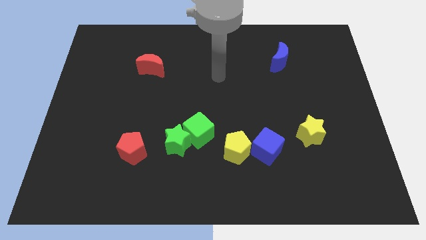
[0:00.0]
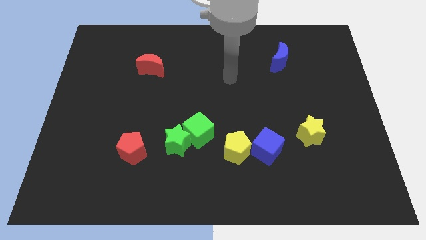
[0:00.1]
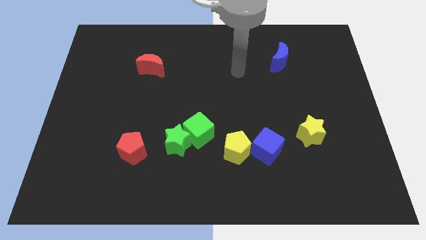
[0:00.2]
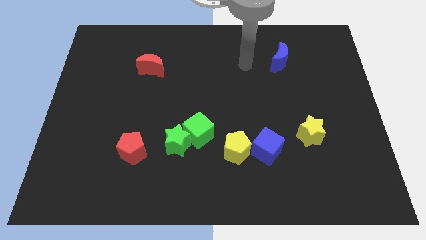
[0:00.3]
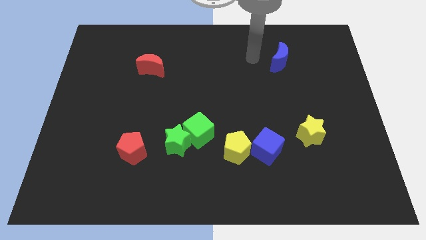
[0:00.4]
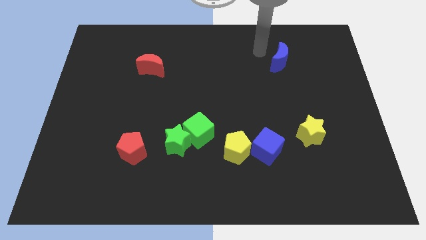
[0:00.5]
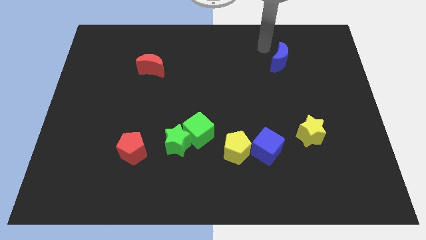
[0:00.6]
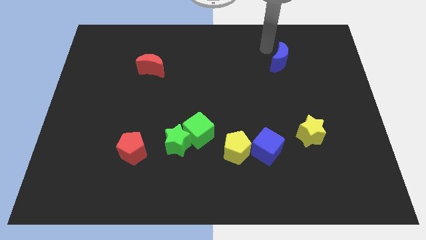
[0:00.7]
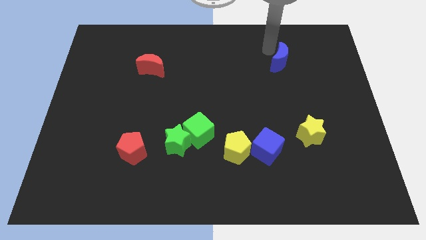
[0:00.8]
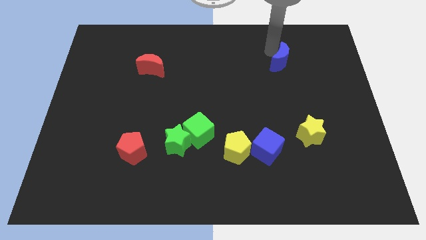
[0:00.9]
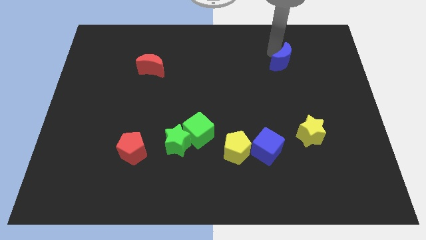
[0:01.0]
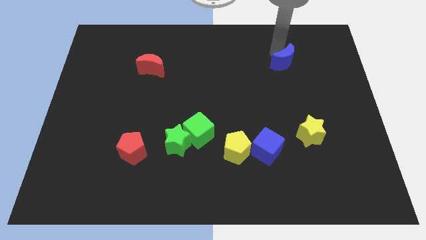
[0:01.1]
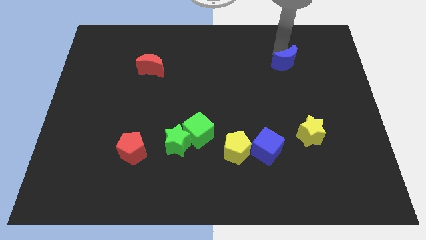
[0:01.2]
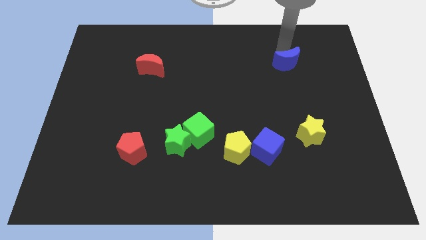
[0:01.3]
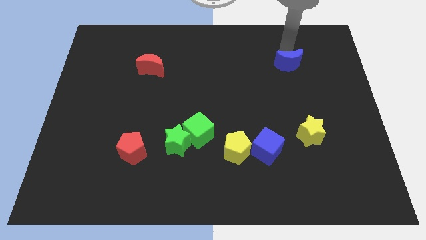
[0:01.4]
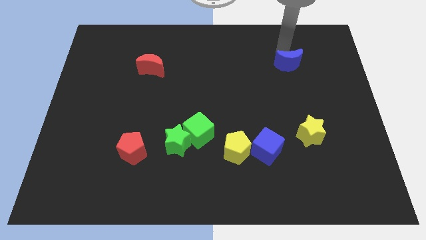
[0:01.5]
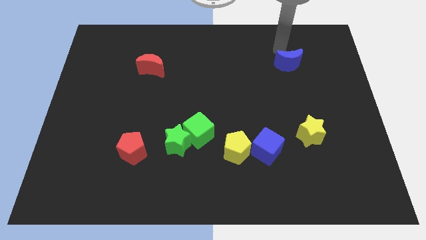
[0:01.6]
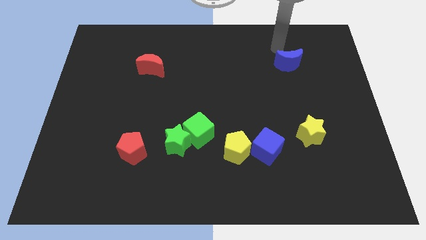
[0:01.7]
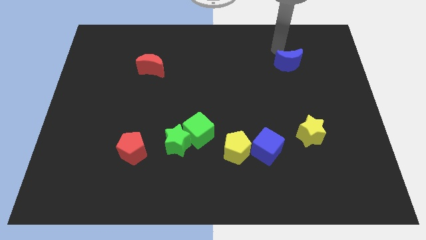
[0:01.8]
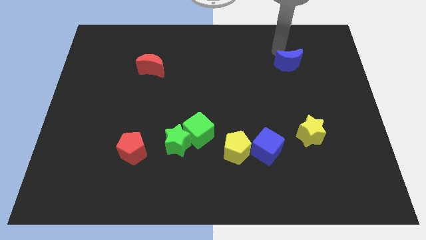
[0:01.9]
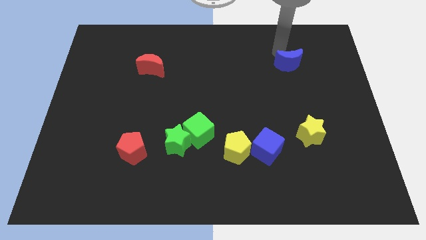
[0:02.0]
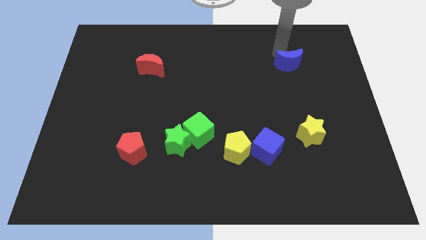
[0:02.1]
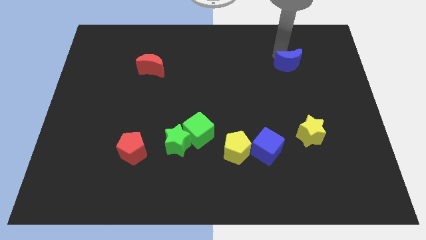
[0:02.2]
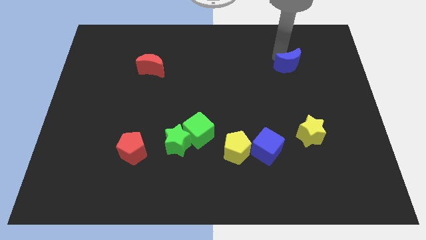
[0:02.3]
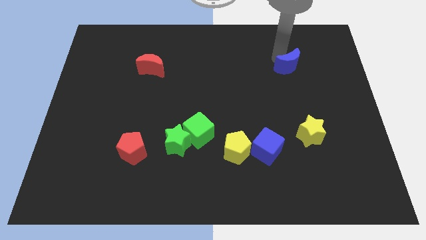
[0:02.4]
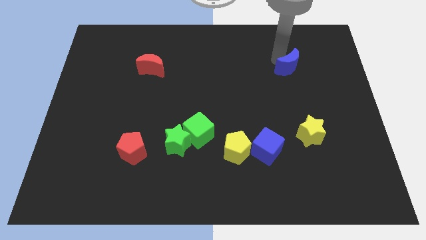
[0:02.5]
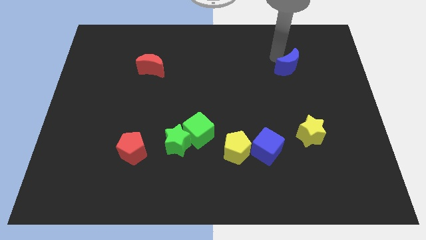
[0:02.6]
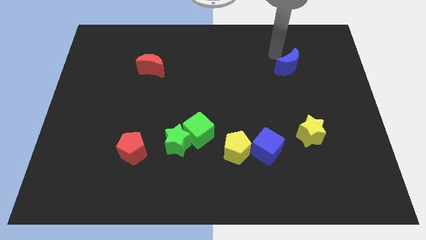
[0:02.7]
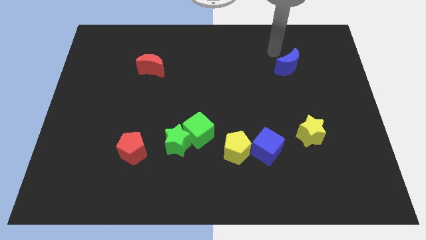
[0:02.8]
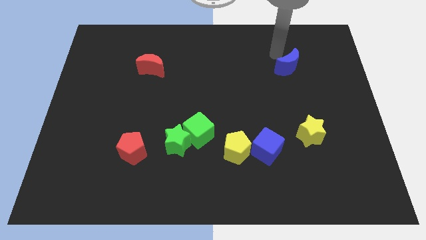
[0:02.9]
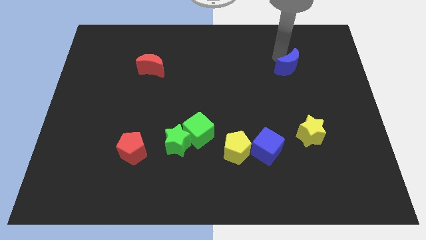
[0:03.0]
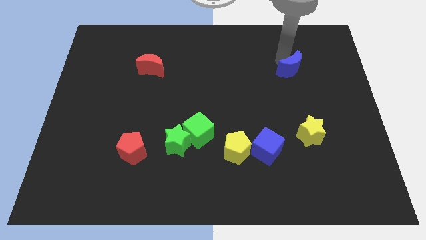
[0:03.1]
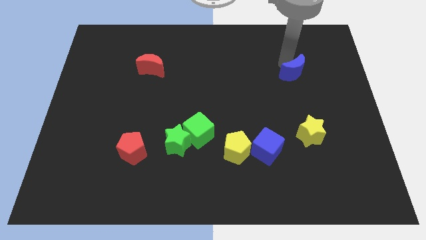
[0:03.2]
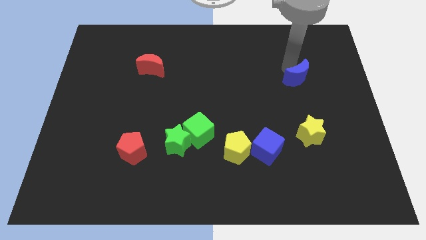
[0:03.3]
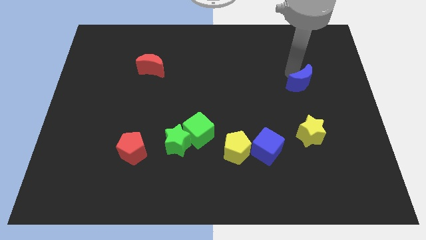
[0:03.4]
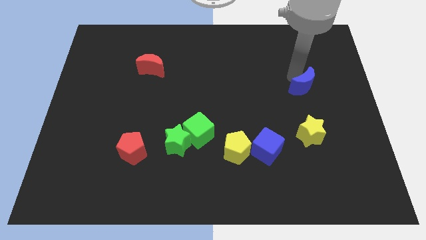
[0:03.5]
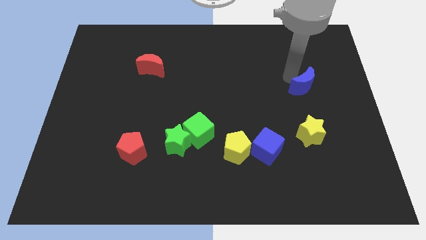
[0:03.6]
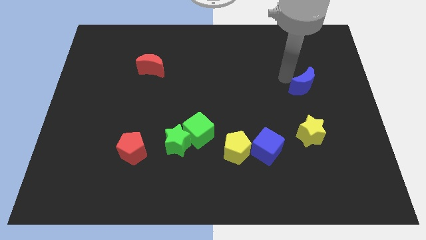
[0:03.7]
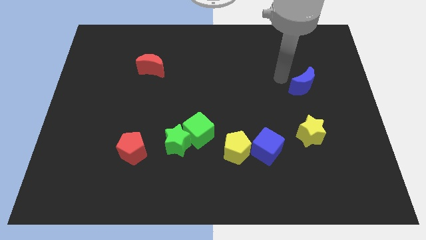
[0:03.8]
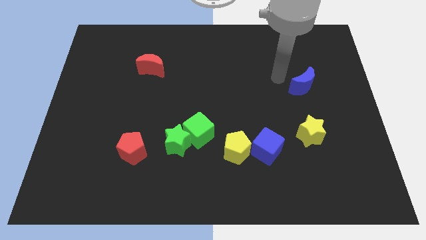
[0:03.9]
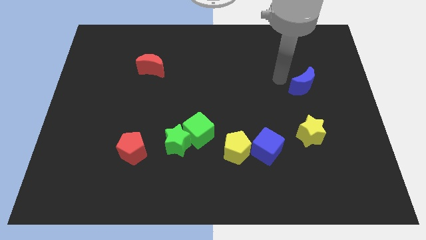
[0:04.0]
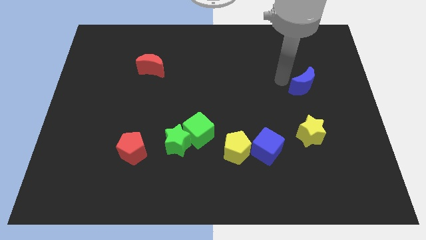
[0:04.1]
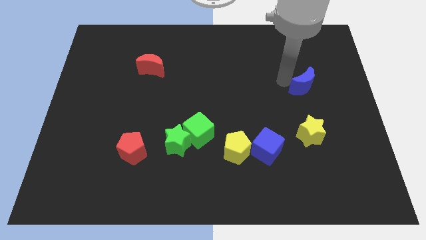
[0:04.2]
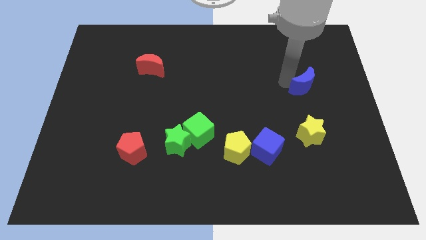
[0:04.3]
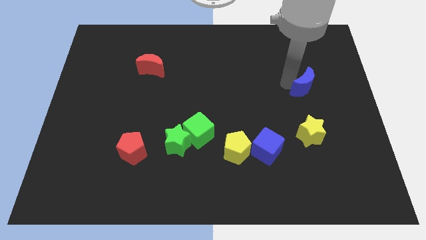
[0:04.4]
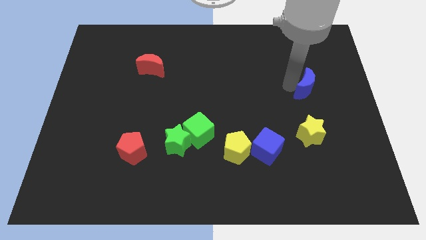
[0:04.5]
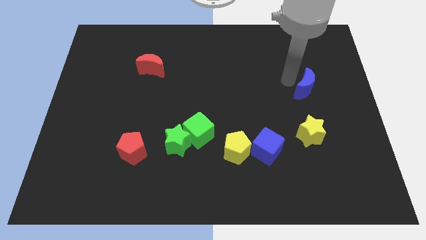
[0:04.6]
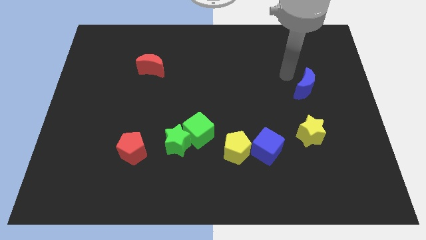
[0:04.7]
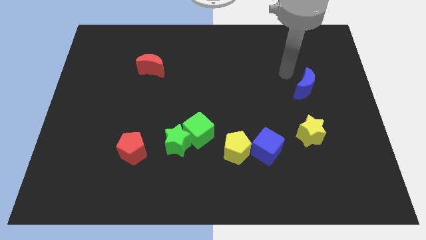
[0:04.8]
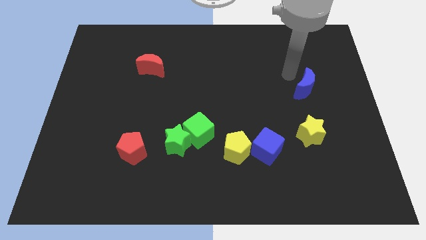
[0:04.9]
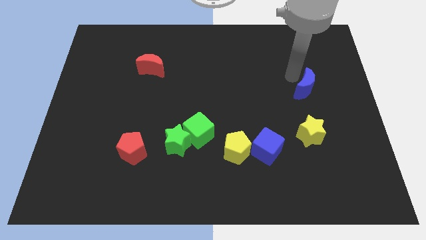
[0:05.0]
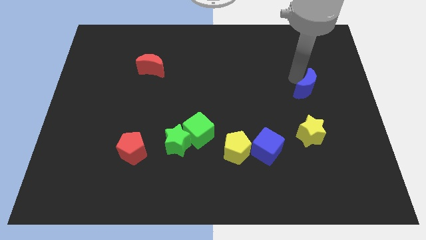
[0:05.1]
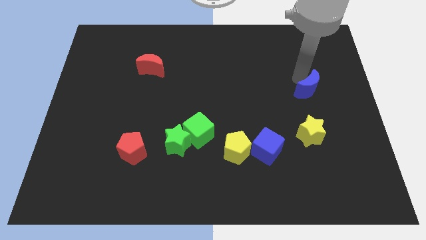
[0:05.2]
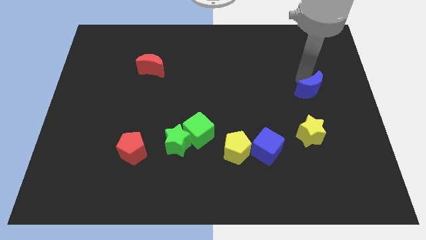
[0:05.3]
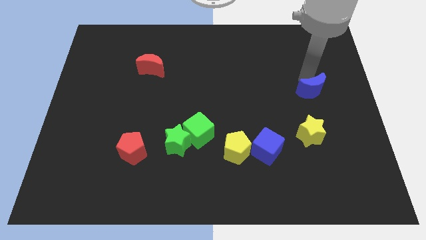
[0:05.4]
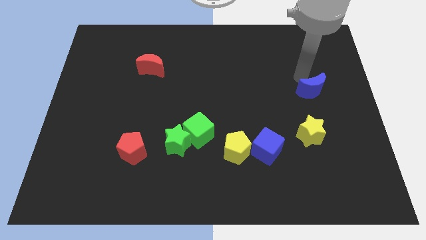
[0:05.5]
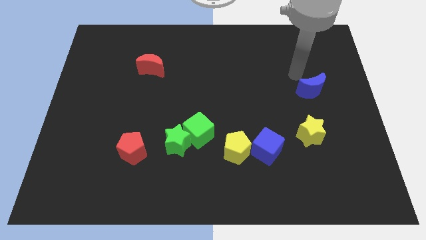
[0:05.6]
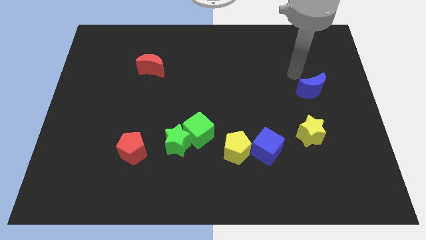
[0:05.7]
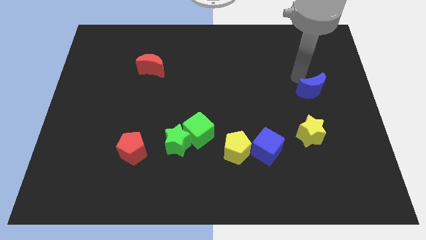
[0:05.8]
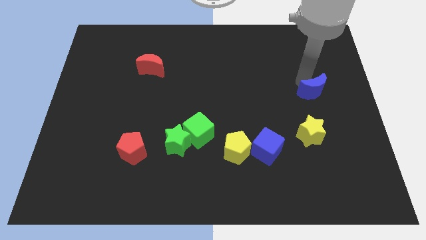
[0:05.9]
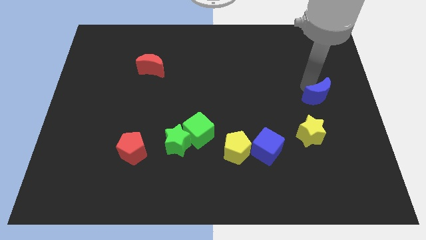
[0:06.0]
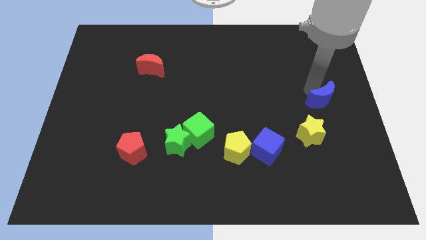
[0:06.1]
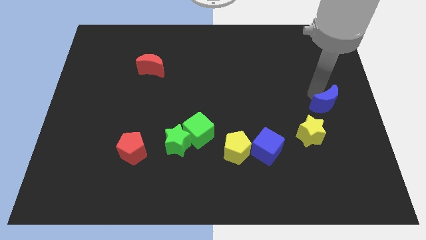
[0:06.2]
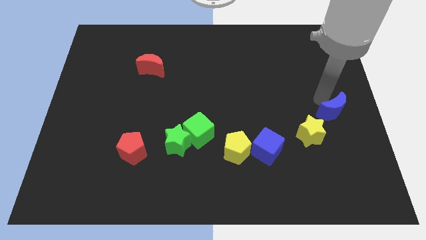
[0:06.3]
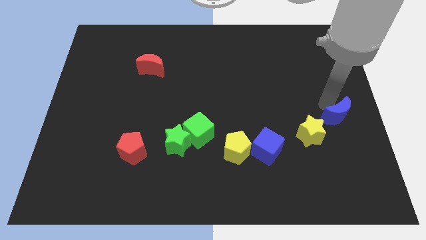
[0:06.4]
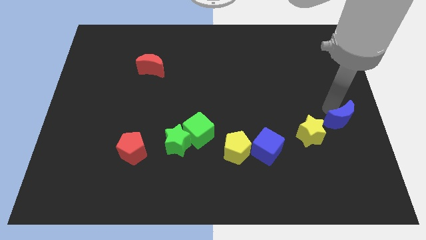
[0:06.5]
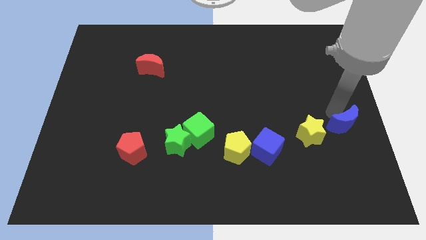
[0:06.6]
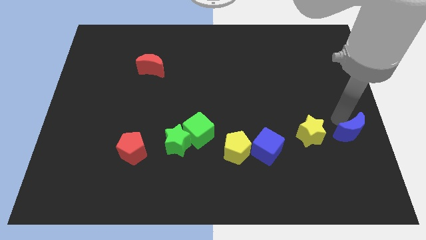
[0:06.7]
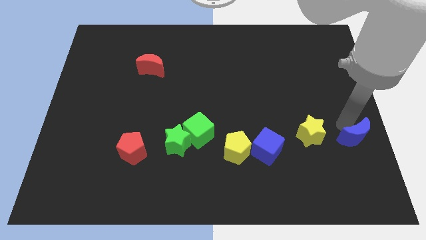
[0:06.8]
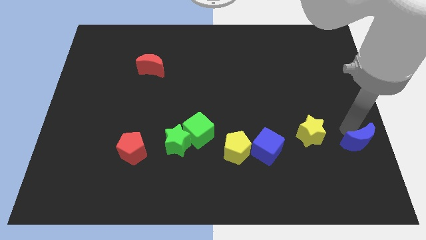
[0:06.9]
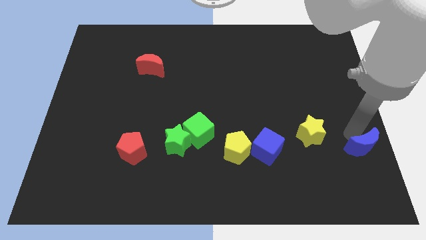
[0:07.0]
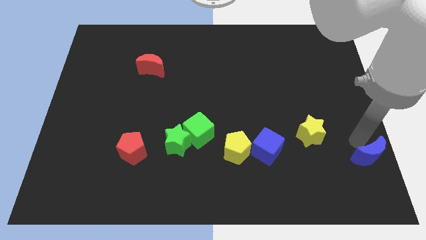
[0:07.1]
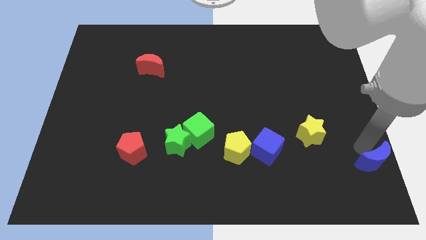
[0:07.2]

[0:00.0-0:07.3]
move the blue moon to the lower right corner
